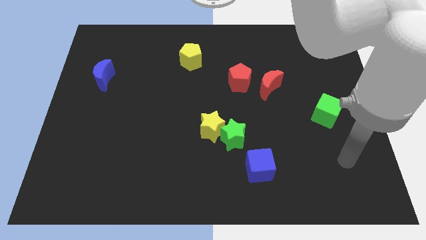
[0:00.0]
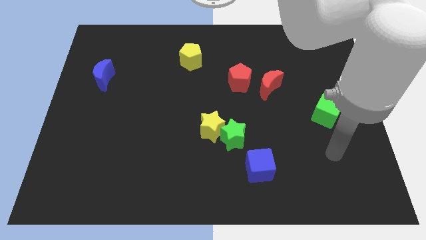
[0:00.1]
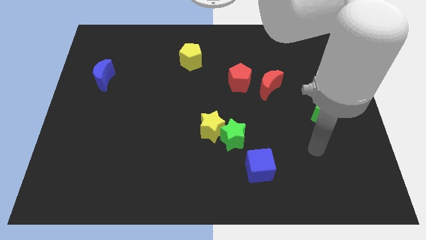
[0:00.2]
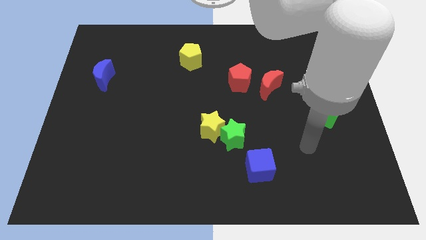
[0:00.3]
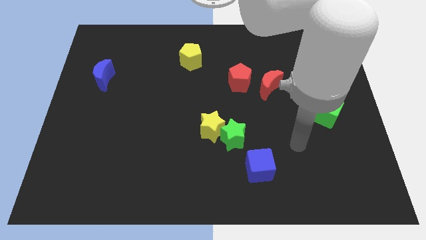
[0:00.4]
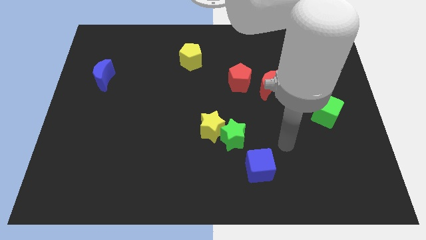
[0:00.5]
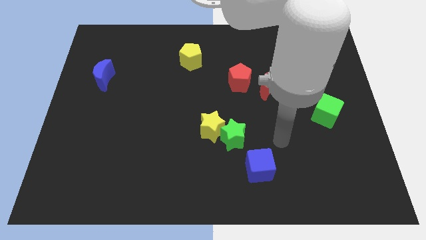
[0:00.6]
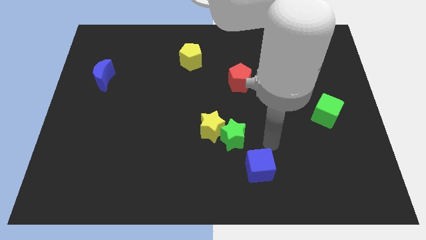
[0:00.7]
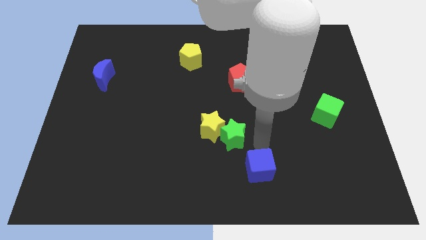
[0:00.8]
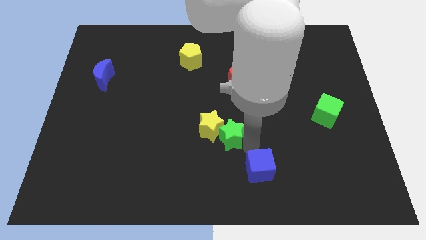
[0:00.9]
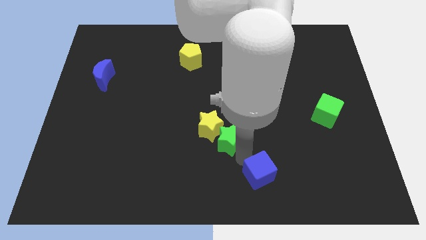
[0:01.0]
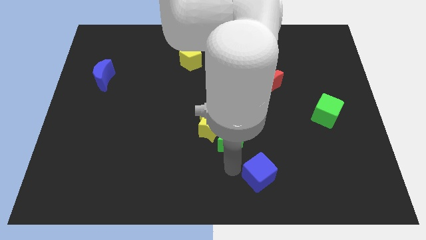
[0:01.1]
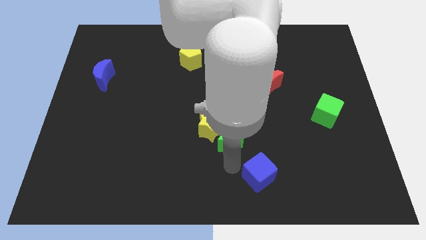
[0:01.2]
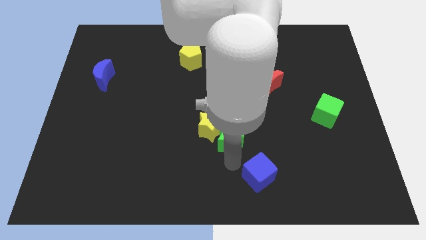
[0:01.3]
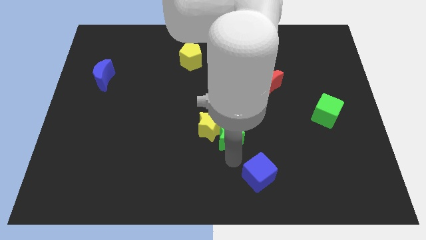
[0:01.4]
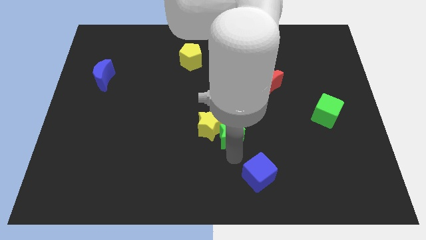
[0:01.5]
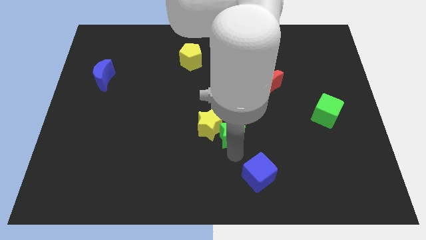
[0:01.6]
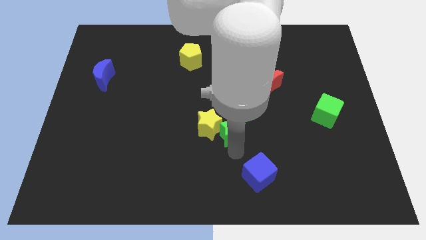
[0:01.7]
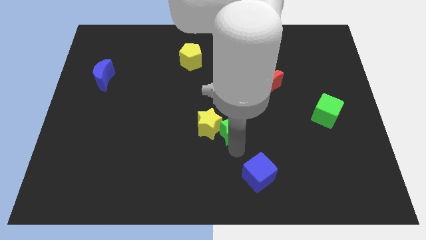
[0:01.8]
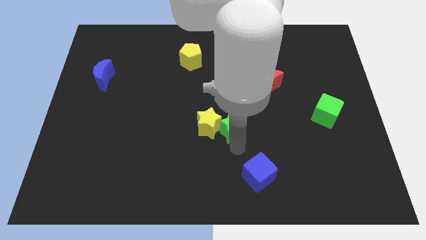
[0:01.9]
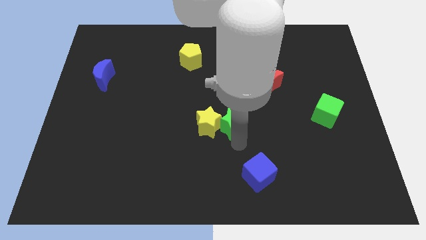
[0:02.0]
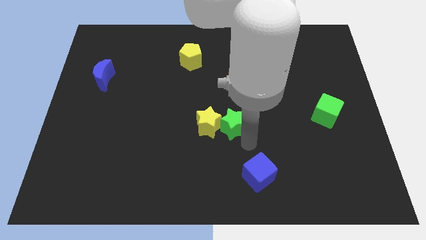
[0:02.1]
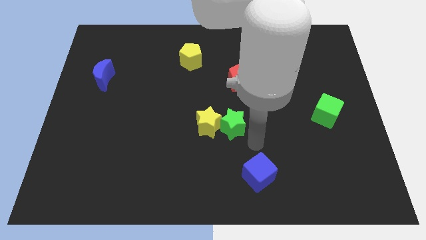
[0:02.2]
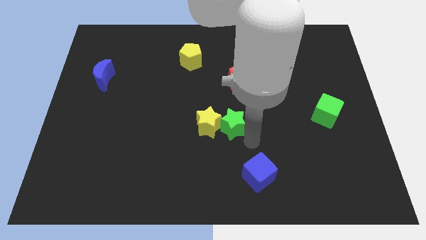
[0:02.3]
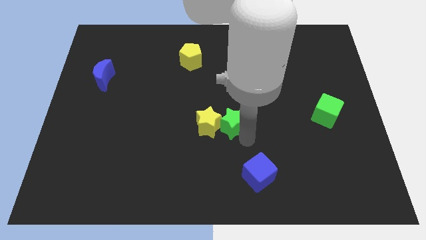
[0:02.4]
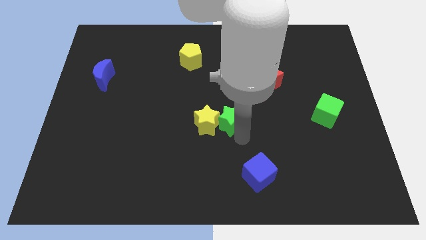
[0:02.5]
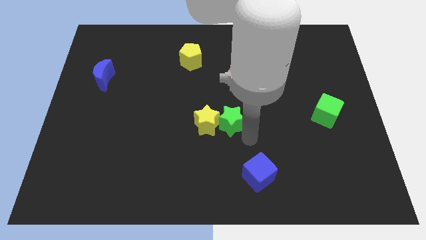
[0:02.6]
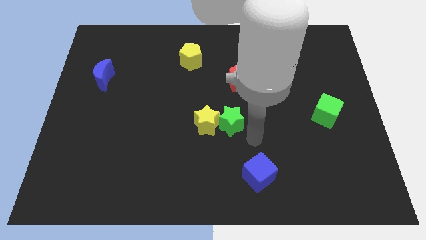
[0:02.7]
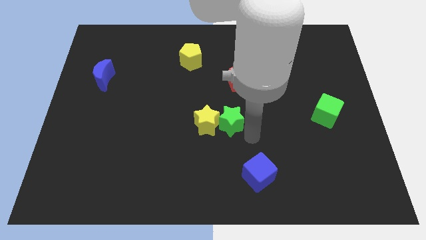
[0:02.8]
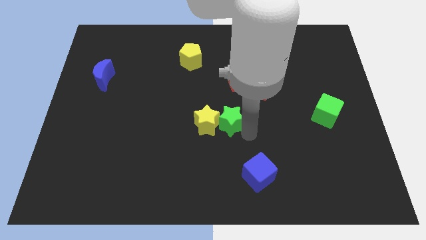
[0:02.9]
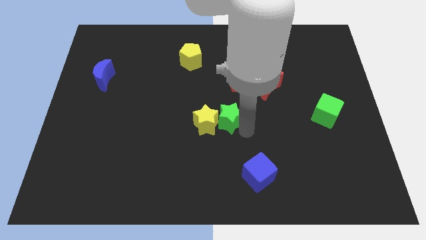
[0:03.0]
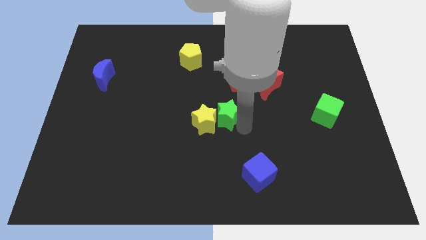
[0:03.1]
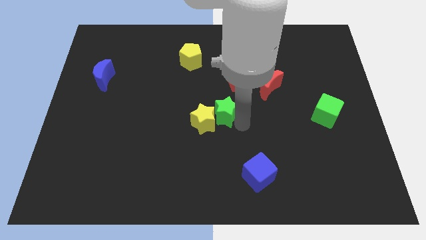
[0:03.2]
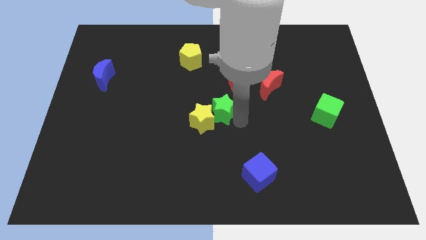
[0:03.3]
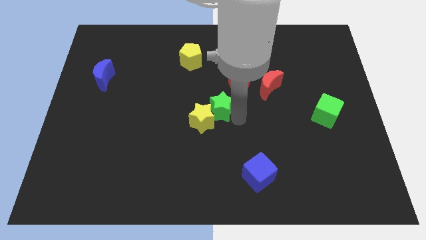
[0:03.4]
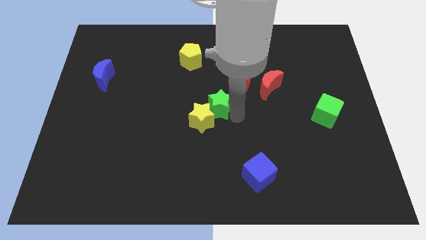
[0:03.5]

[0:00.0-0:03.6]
slide the green star a little bit upwards and left

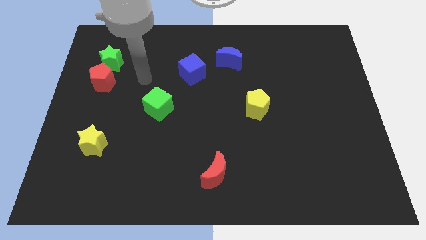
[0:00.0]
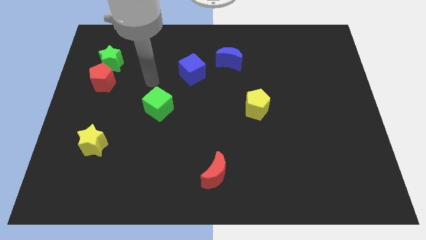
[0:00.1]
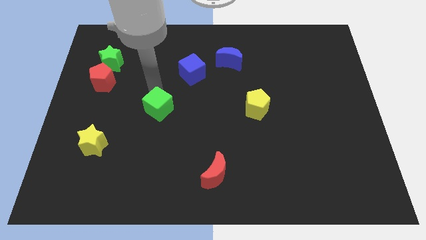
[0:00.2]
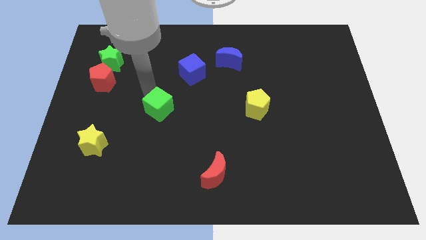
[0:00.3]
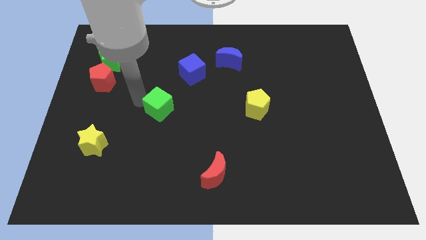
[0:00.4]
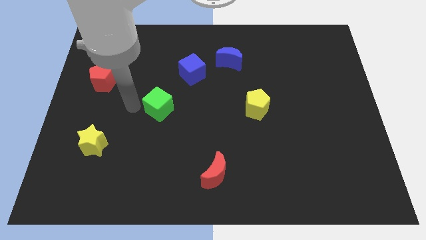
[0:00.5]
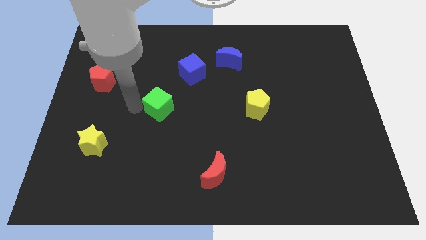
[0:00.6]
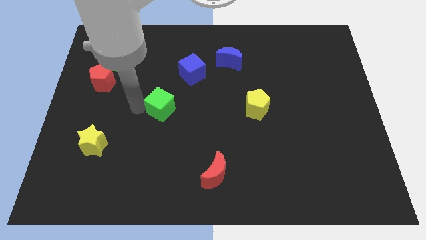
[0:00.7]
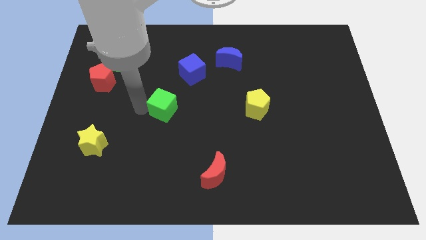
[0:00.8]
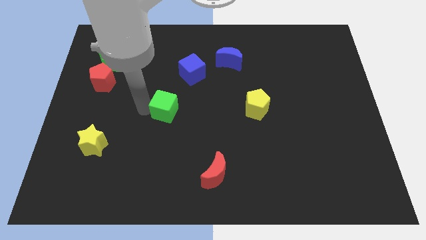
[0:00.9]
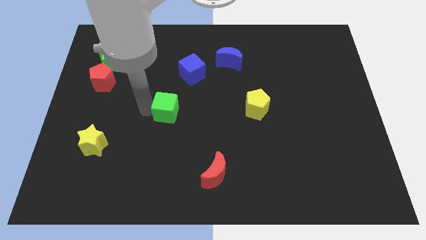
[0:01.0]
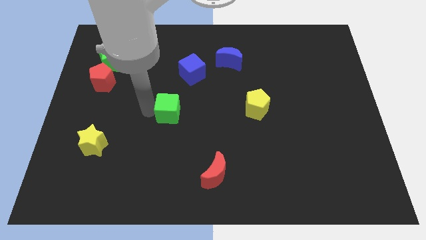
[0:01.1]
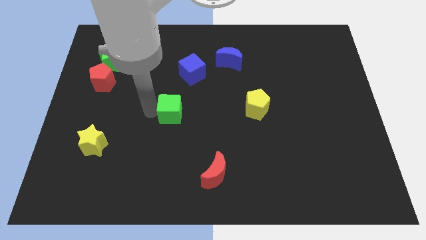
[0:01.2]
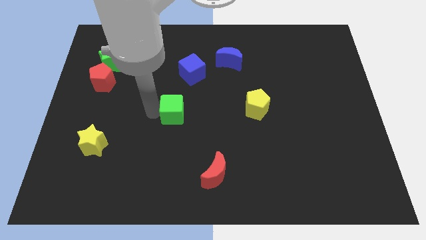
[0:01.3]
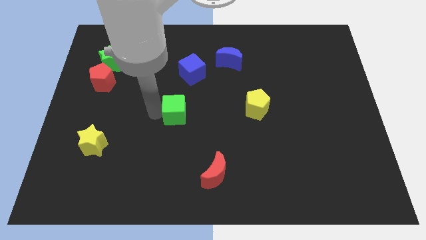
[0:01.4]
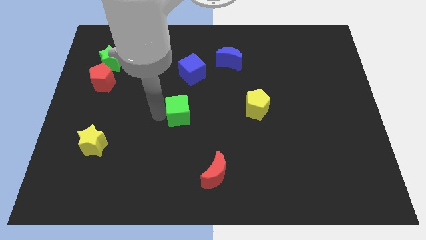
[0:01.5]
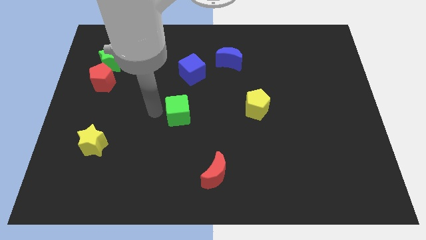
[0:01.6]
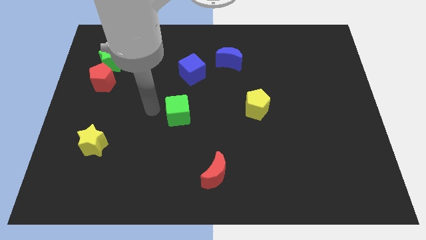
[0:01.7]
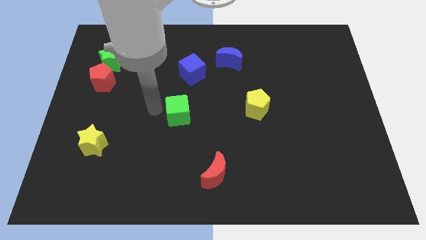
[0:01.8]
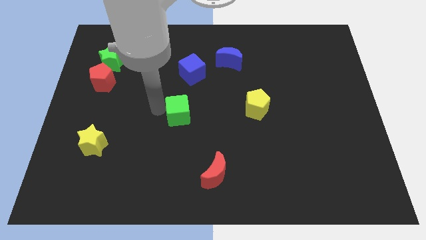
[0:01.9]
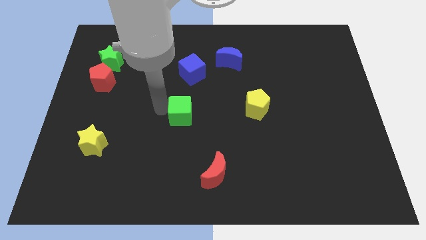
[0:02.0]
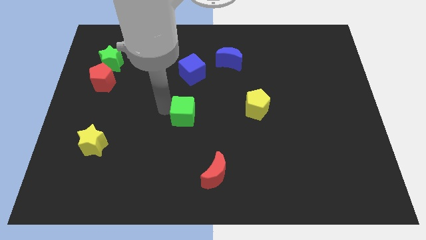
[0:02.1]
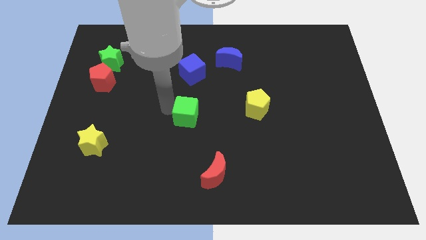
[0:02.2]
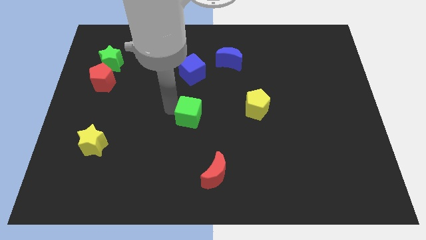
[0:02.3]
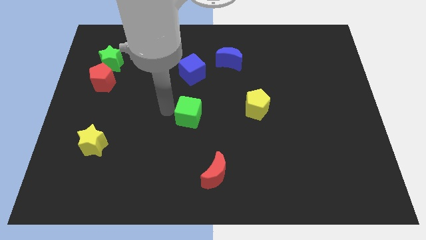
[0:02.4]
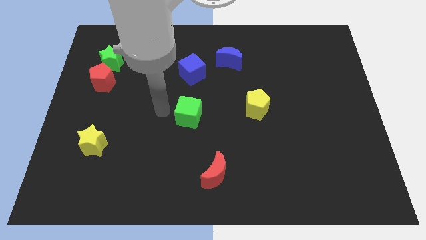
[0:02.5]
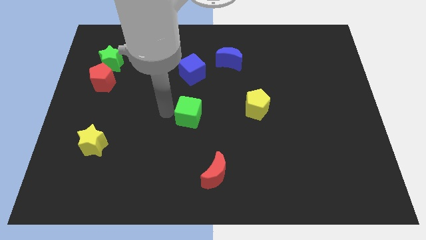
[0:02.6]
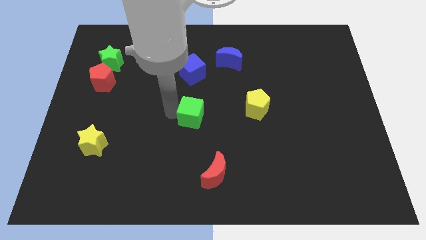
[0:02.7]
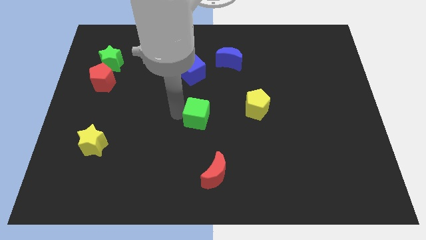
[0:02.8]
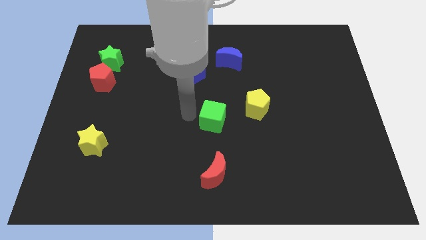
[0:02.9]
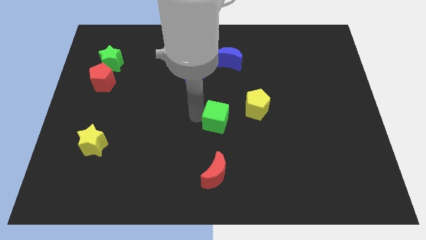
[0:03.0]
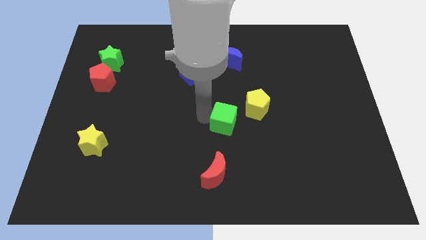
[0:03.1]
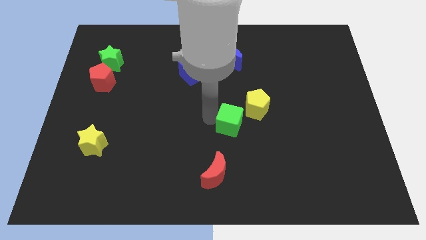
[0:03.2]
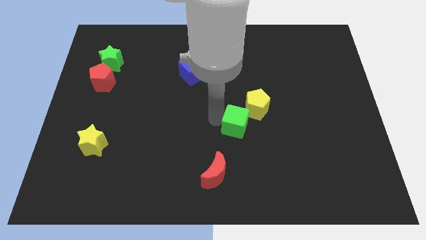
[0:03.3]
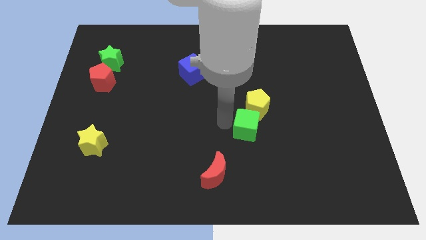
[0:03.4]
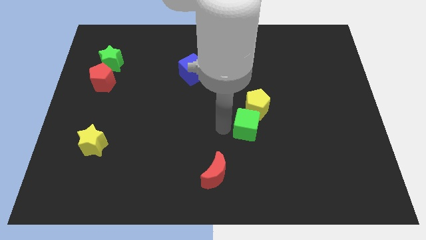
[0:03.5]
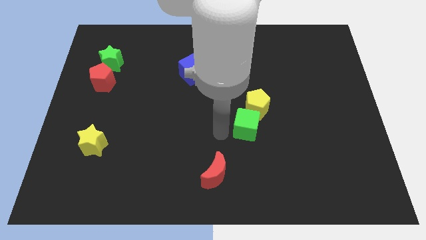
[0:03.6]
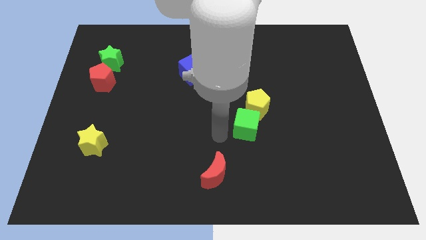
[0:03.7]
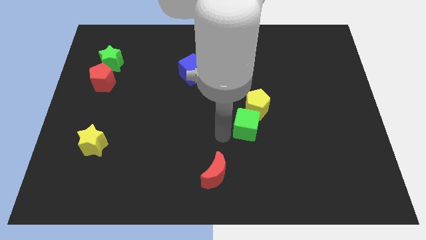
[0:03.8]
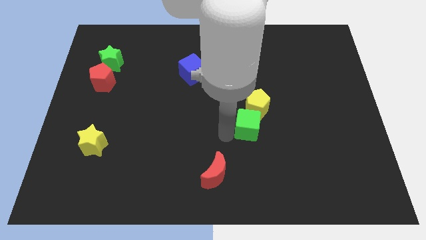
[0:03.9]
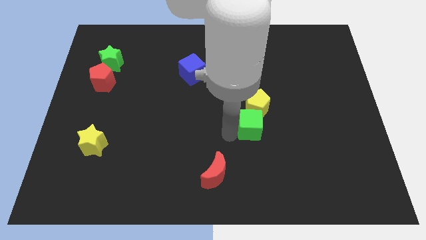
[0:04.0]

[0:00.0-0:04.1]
push the green cube to the right

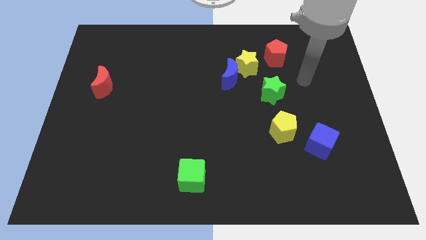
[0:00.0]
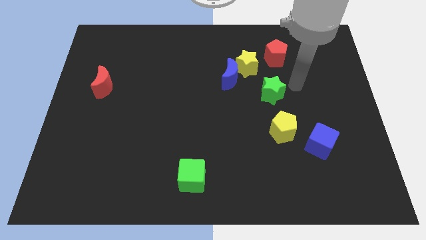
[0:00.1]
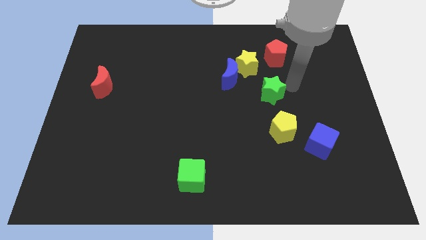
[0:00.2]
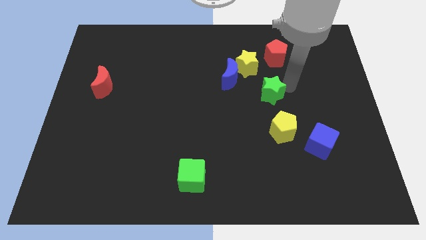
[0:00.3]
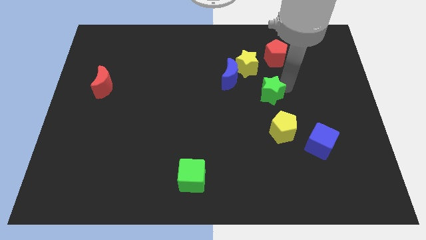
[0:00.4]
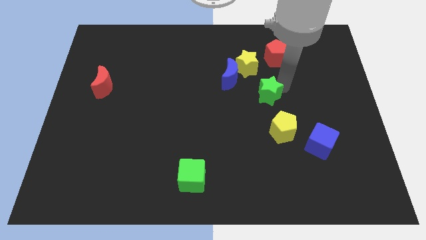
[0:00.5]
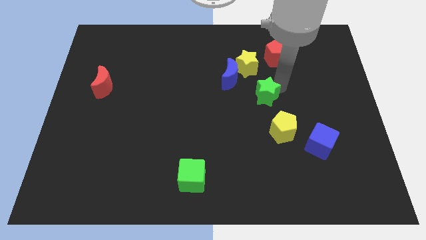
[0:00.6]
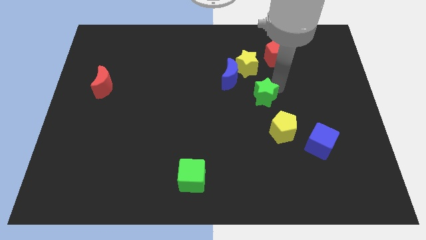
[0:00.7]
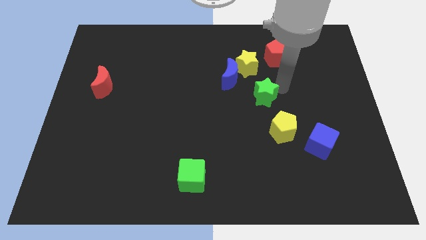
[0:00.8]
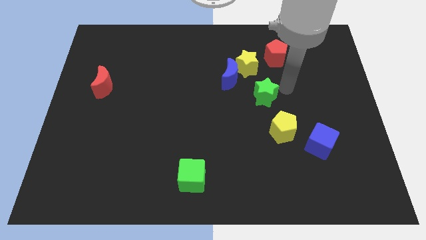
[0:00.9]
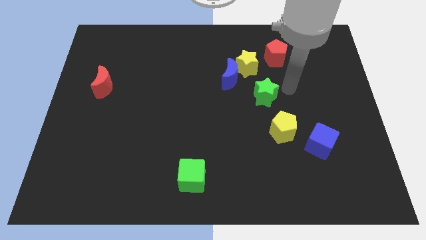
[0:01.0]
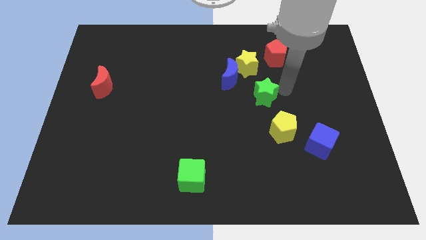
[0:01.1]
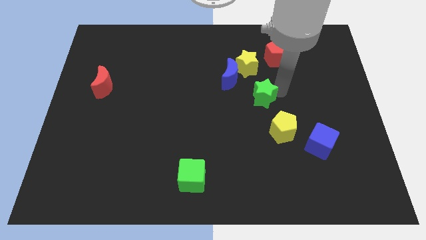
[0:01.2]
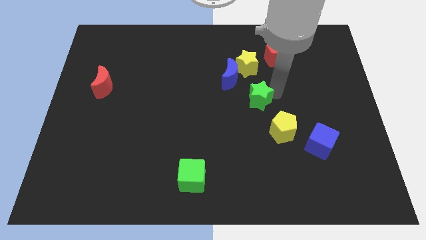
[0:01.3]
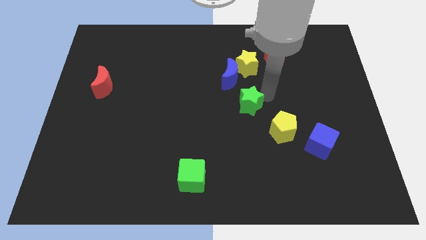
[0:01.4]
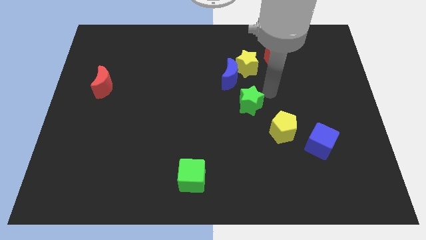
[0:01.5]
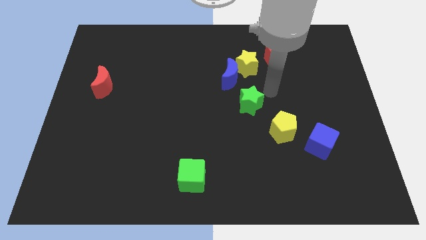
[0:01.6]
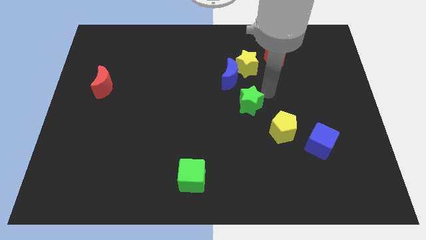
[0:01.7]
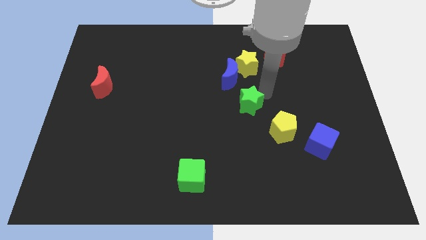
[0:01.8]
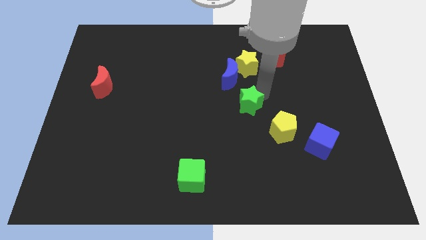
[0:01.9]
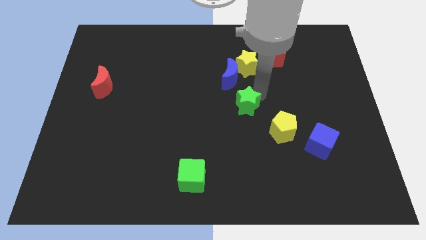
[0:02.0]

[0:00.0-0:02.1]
slide the green star diagonally downwards and to the left a little
